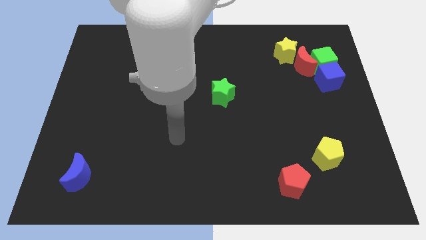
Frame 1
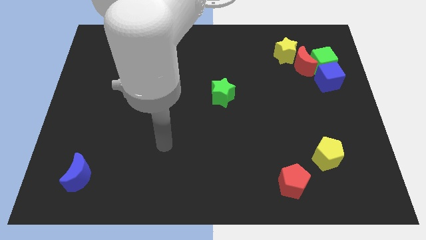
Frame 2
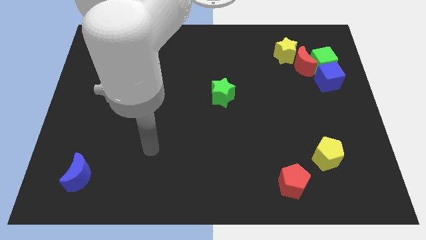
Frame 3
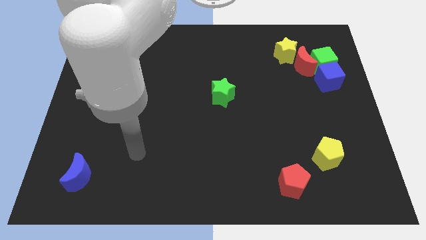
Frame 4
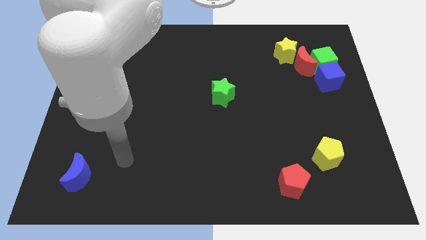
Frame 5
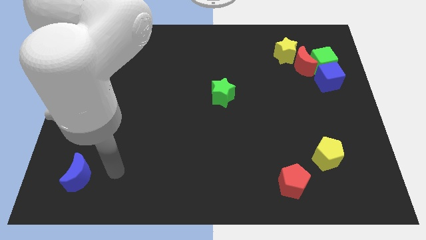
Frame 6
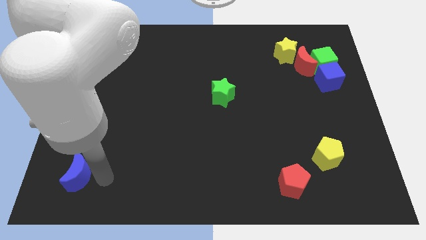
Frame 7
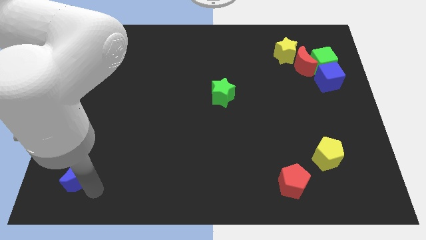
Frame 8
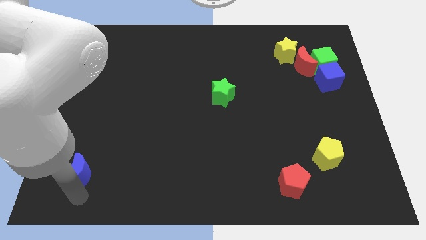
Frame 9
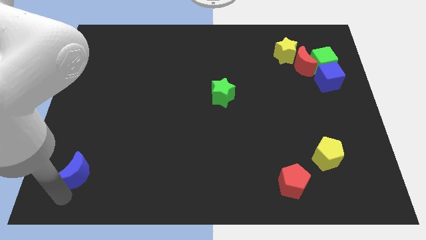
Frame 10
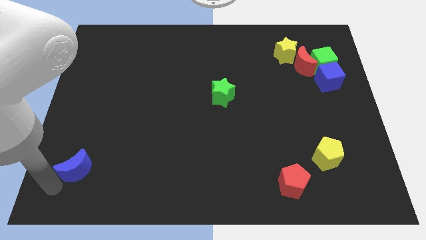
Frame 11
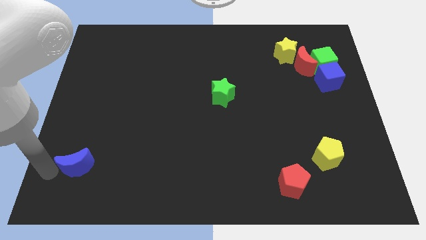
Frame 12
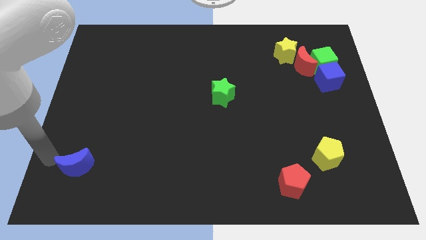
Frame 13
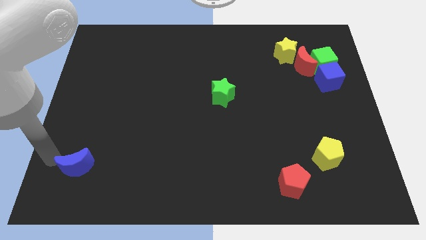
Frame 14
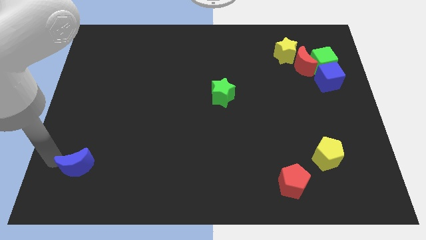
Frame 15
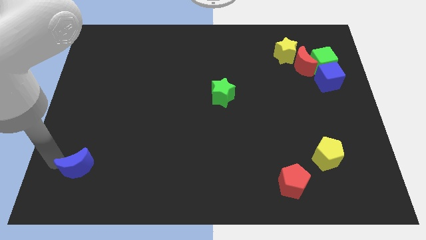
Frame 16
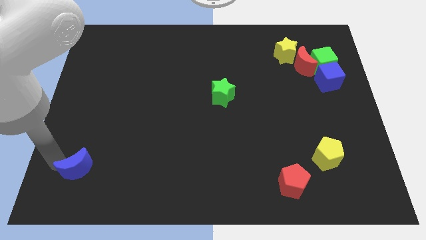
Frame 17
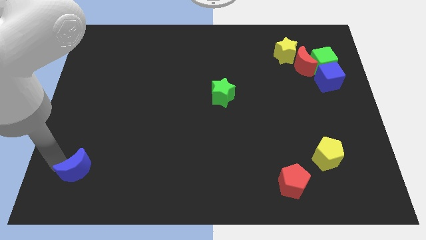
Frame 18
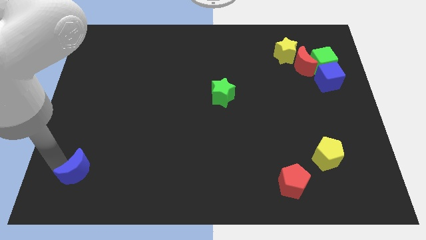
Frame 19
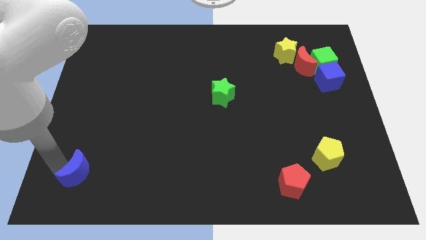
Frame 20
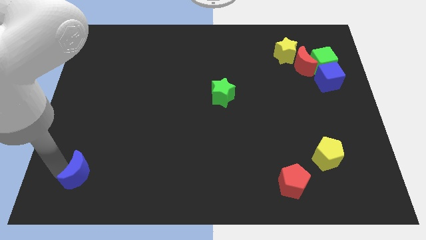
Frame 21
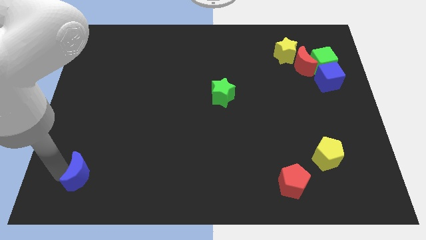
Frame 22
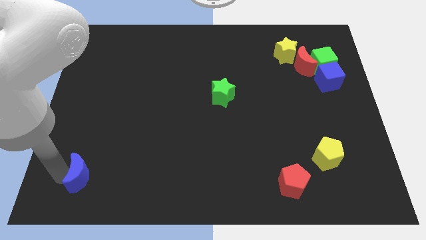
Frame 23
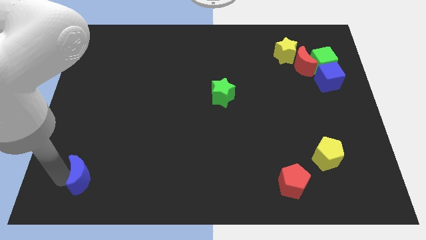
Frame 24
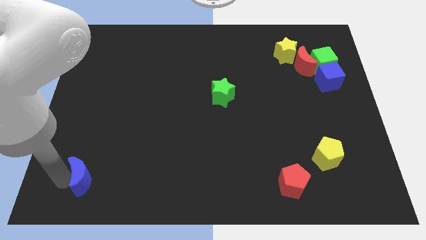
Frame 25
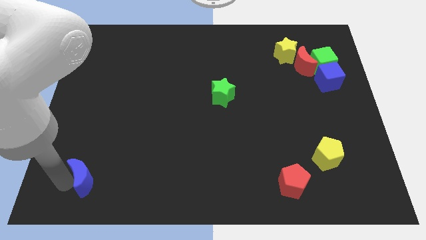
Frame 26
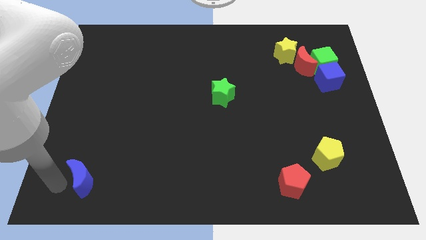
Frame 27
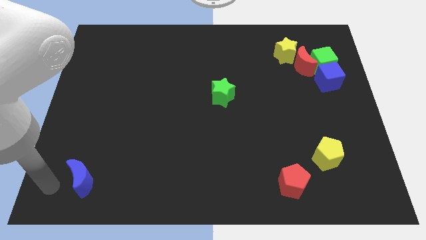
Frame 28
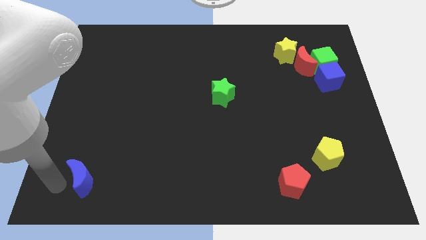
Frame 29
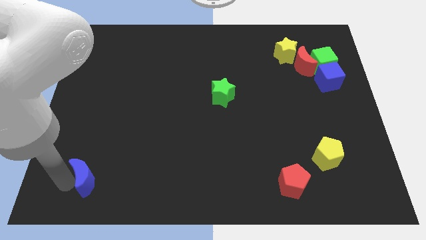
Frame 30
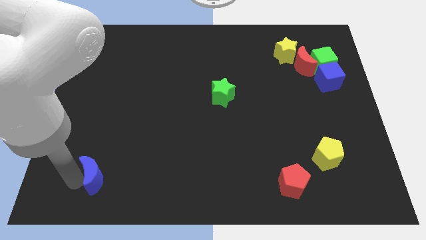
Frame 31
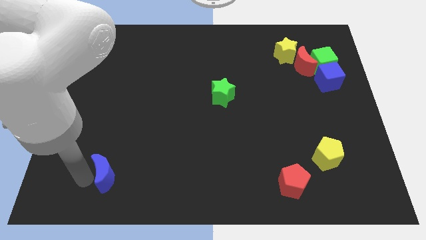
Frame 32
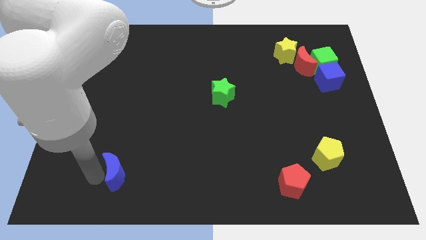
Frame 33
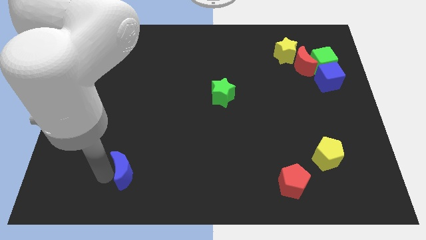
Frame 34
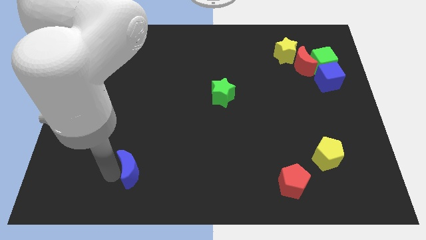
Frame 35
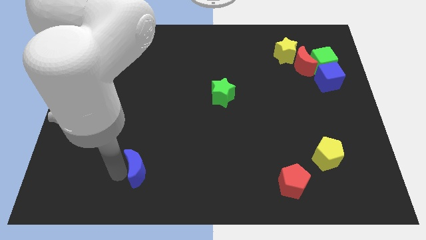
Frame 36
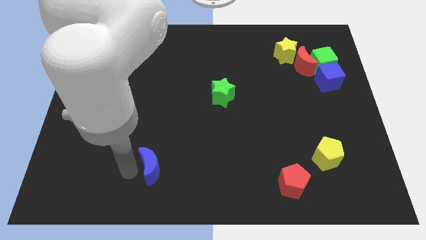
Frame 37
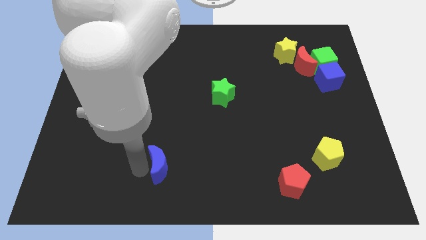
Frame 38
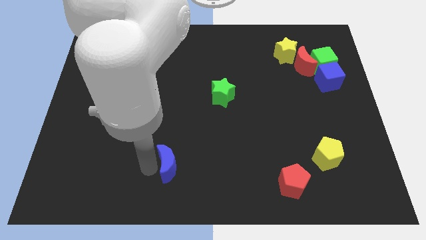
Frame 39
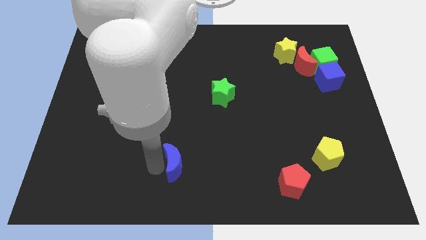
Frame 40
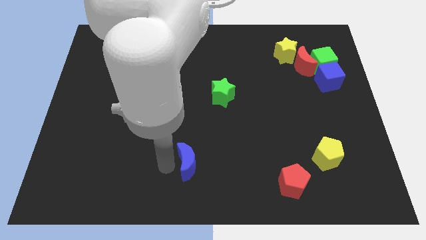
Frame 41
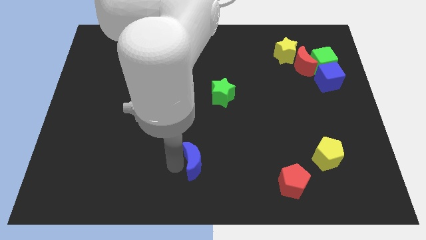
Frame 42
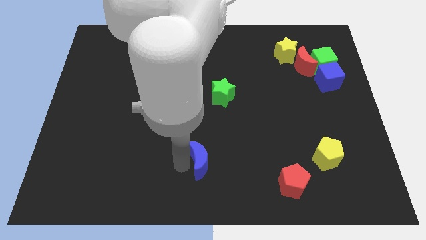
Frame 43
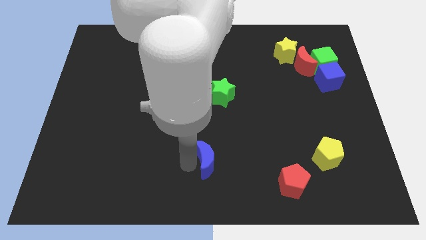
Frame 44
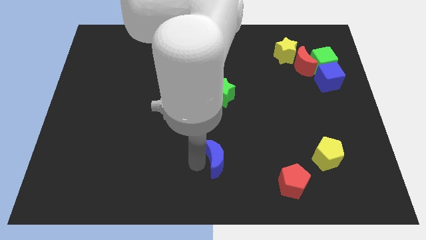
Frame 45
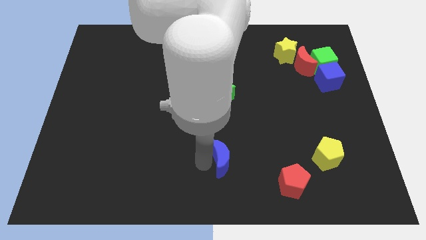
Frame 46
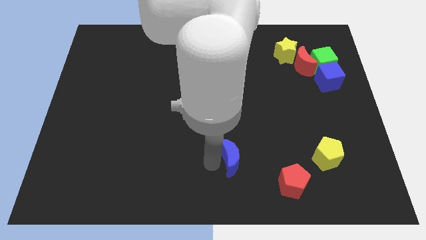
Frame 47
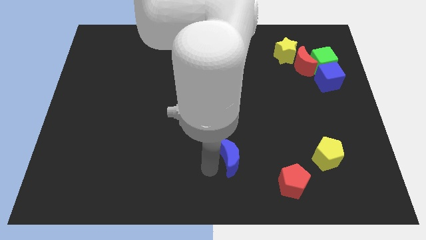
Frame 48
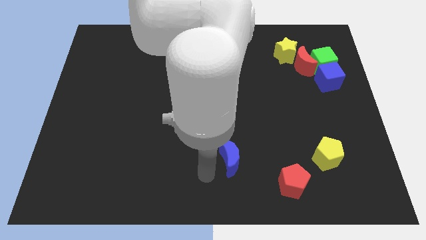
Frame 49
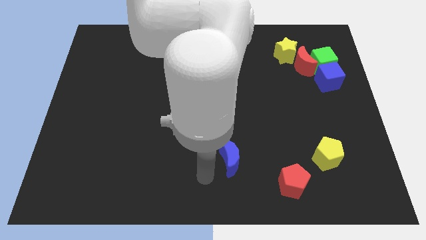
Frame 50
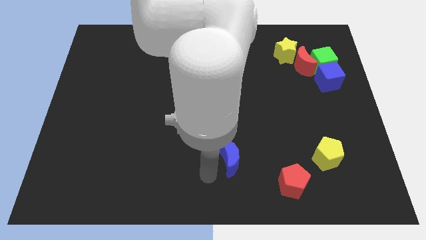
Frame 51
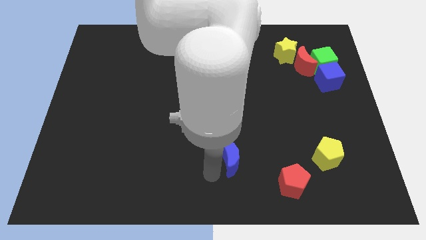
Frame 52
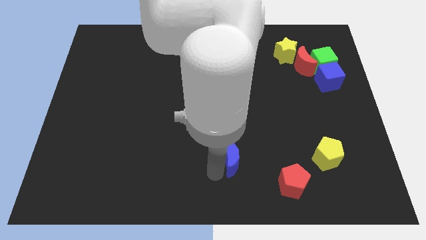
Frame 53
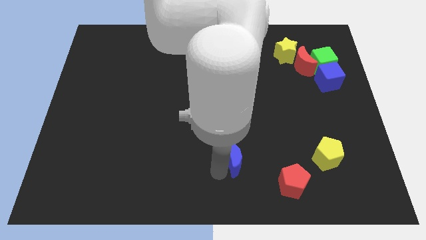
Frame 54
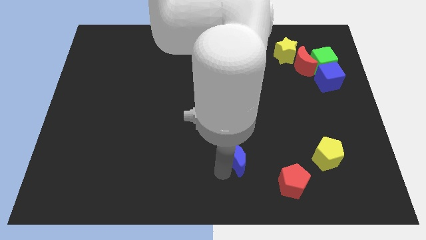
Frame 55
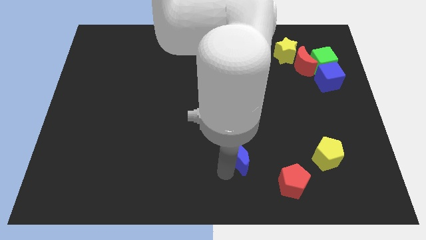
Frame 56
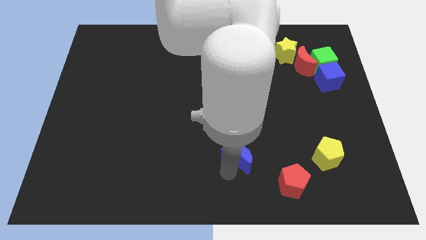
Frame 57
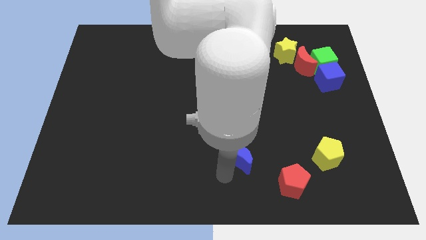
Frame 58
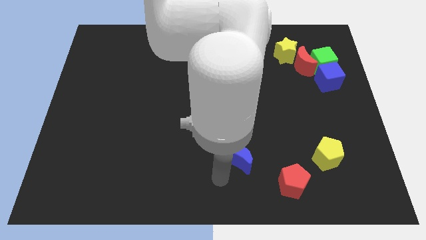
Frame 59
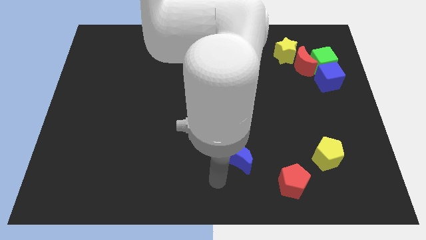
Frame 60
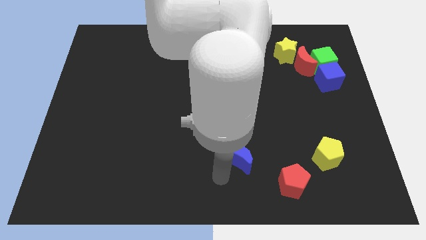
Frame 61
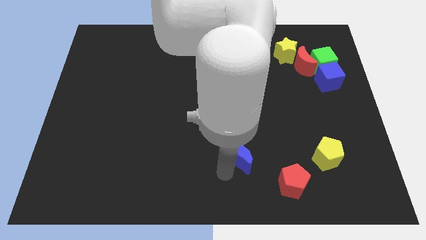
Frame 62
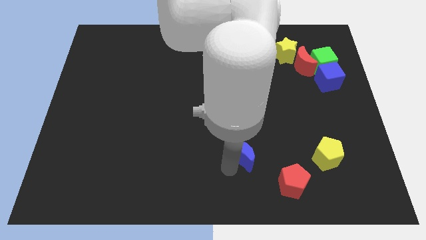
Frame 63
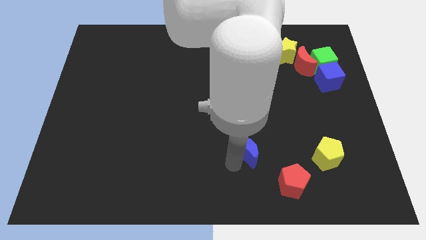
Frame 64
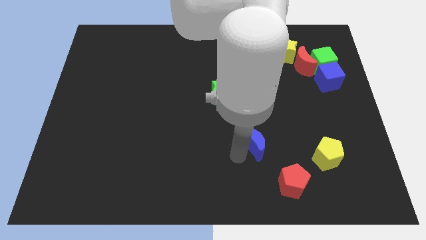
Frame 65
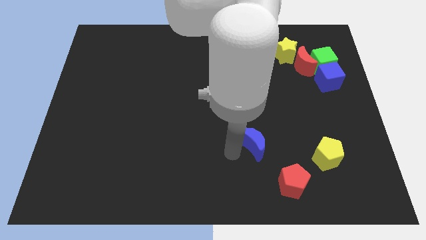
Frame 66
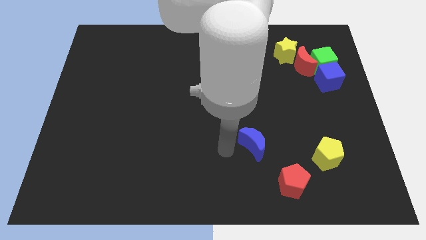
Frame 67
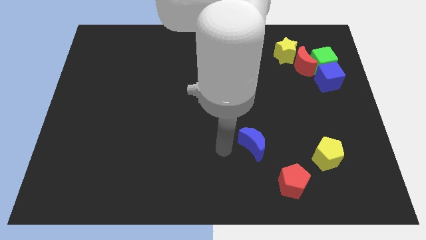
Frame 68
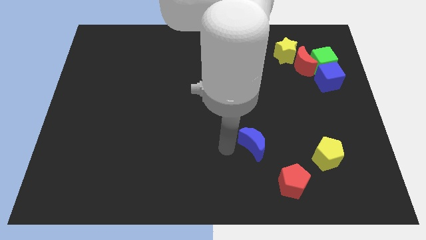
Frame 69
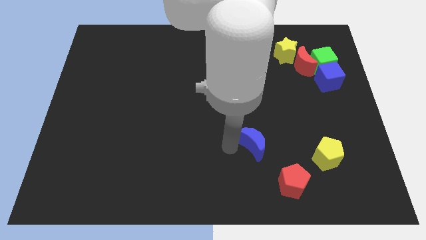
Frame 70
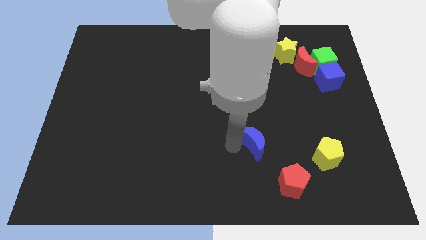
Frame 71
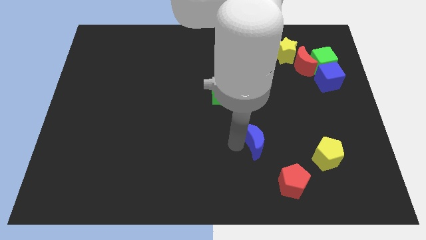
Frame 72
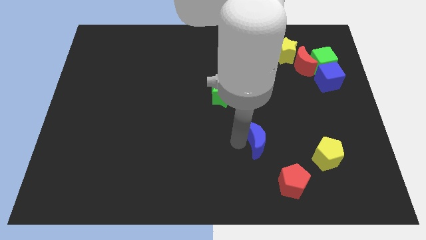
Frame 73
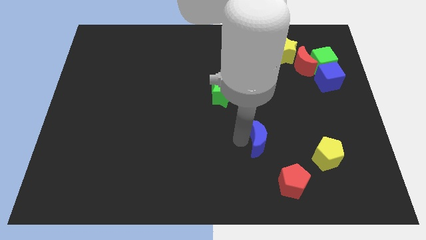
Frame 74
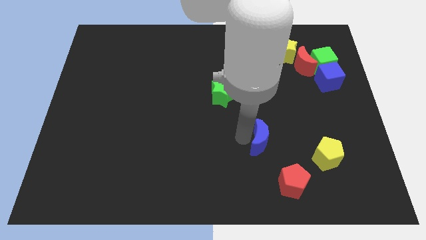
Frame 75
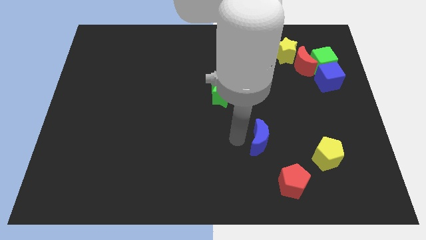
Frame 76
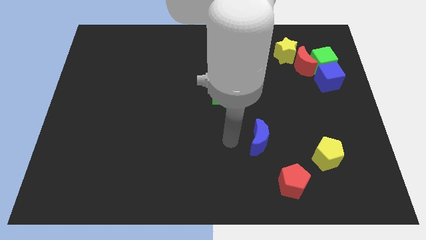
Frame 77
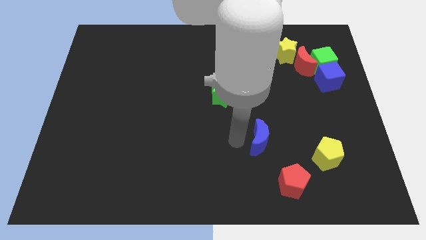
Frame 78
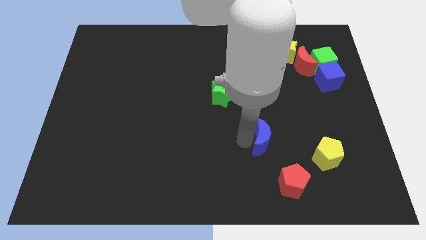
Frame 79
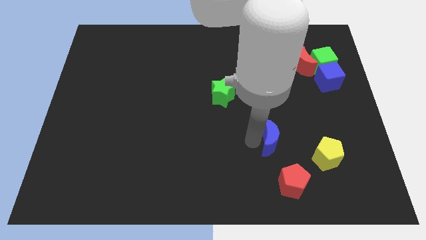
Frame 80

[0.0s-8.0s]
slide the blue moon to the top of the red pentagon
